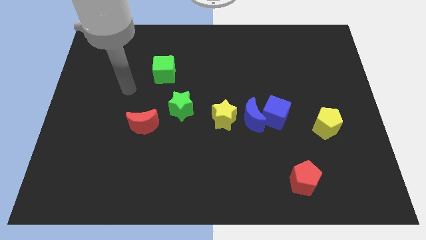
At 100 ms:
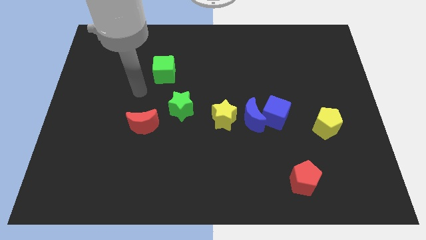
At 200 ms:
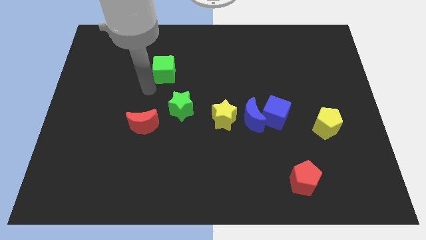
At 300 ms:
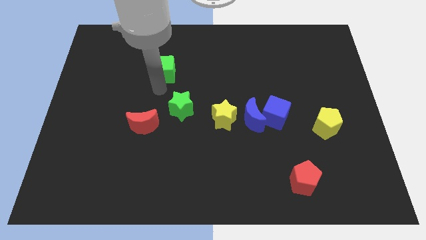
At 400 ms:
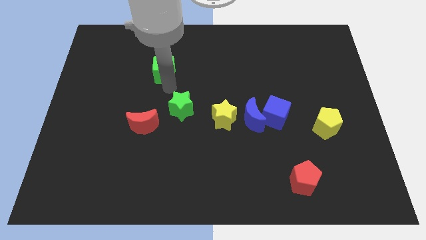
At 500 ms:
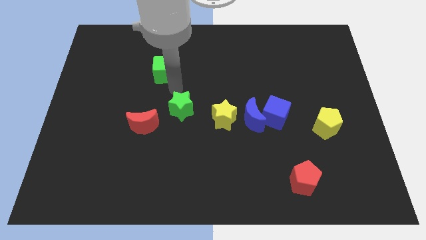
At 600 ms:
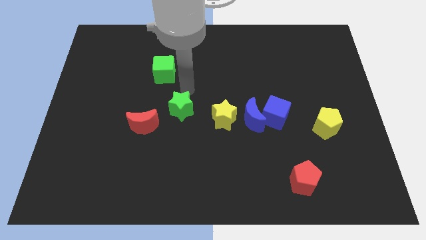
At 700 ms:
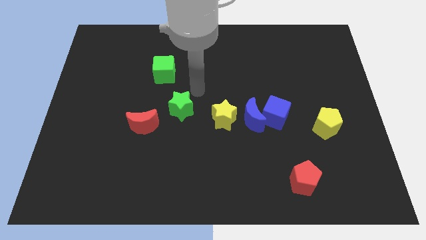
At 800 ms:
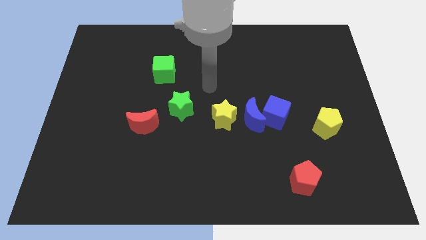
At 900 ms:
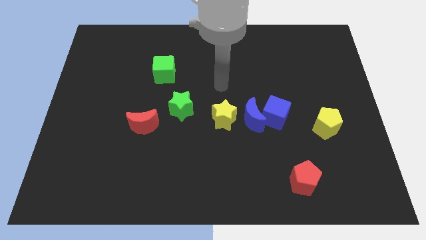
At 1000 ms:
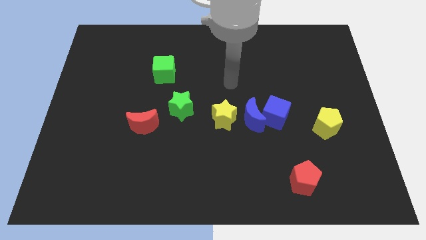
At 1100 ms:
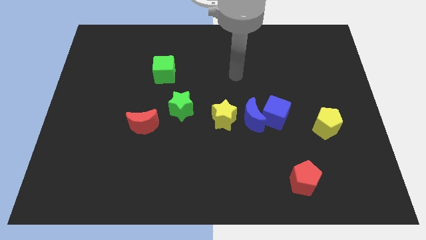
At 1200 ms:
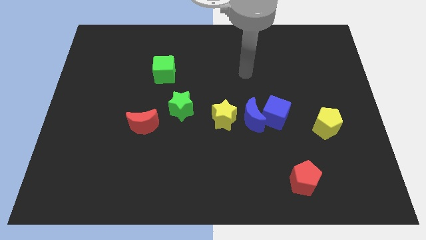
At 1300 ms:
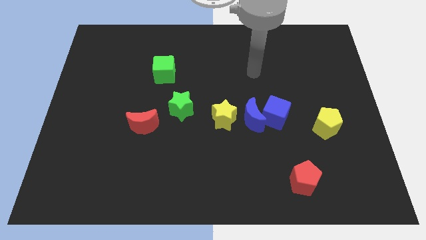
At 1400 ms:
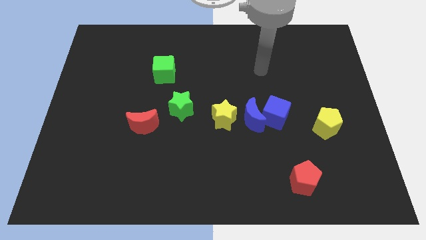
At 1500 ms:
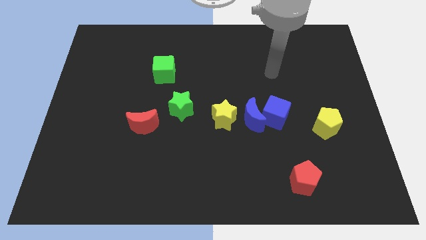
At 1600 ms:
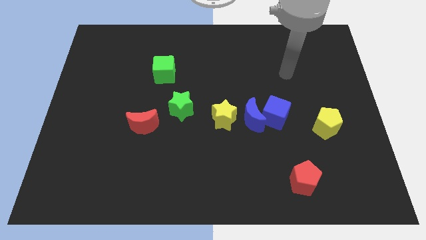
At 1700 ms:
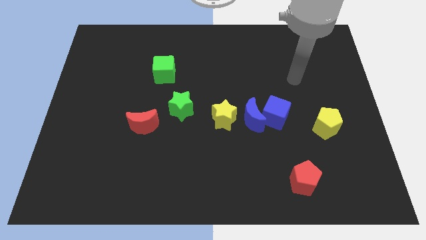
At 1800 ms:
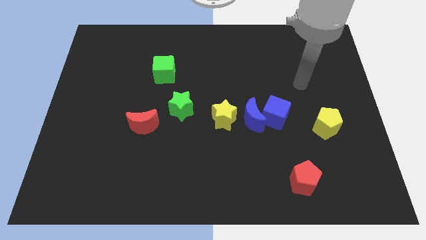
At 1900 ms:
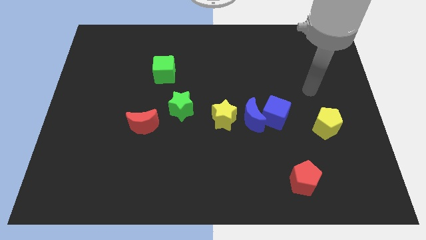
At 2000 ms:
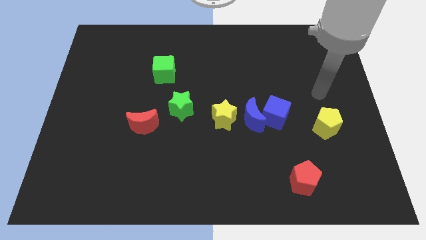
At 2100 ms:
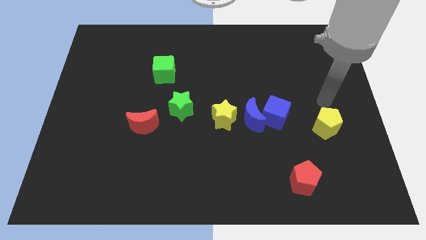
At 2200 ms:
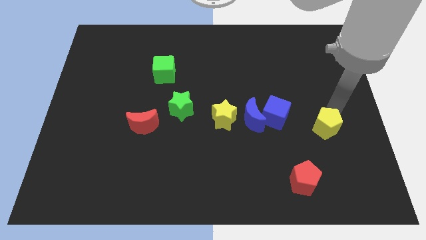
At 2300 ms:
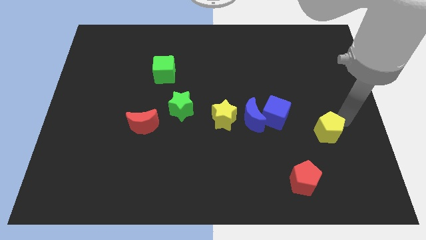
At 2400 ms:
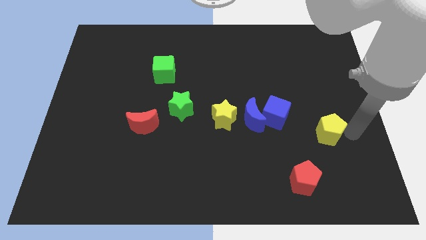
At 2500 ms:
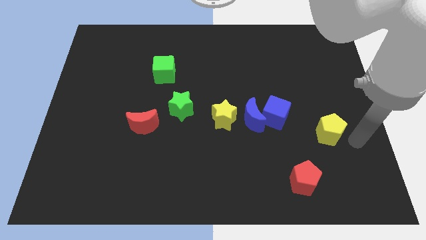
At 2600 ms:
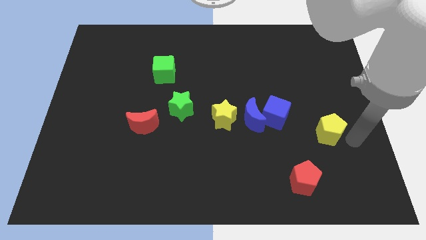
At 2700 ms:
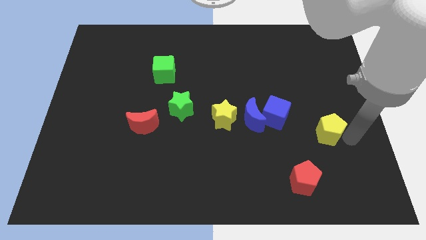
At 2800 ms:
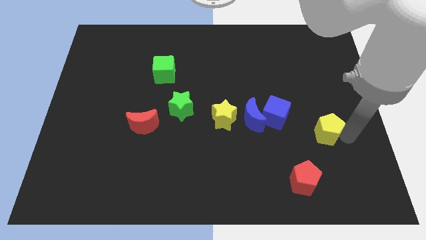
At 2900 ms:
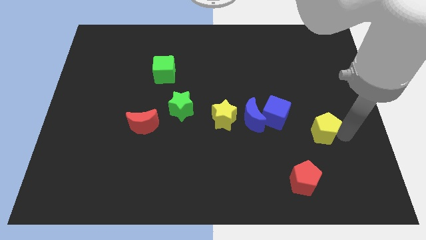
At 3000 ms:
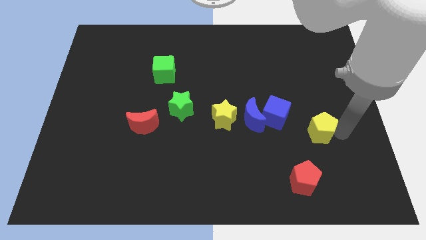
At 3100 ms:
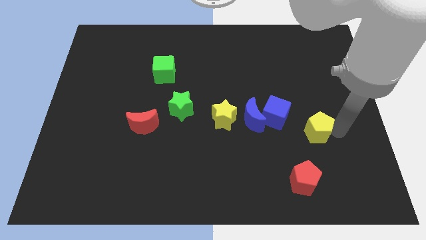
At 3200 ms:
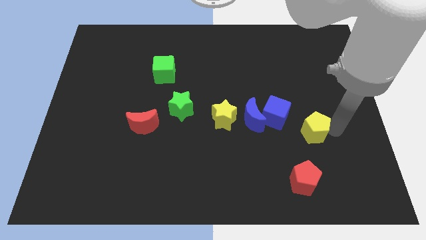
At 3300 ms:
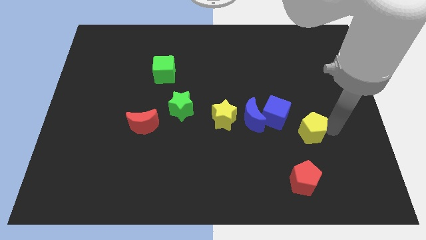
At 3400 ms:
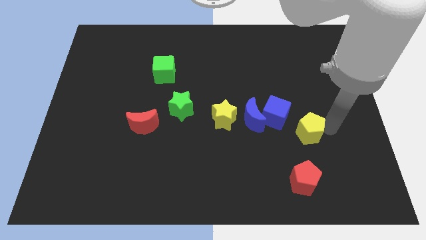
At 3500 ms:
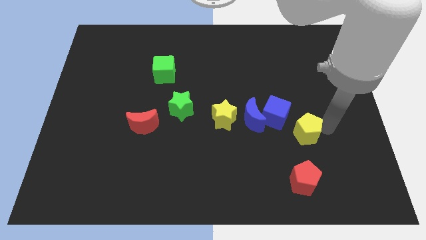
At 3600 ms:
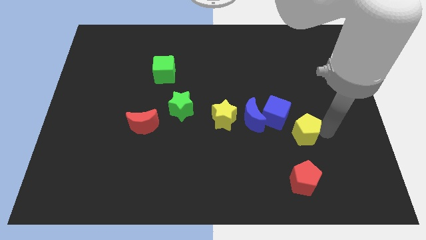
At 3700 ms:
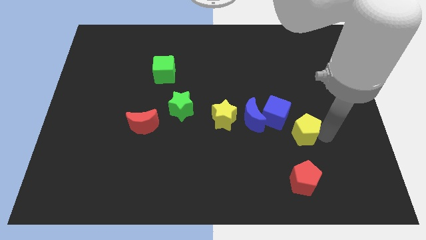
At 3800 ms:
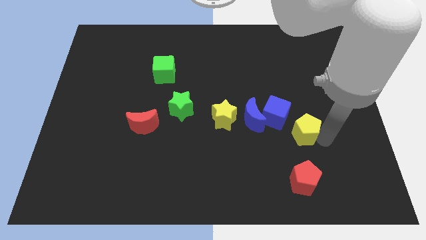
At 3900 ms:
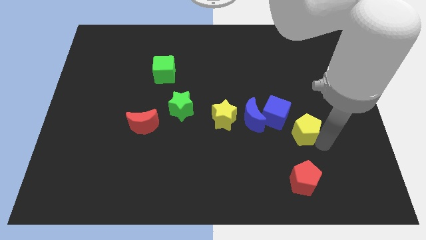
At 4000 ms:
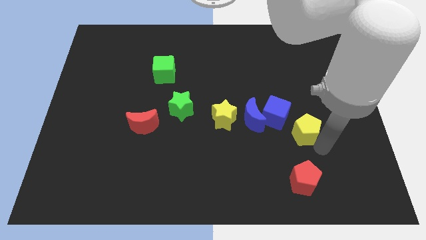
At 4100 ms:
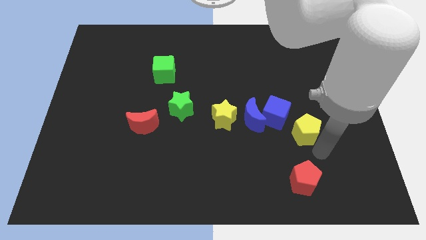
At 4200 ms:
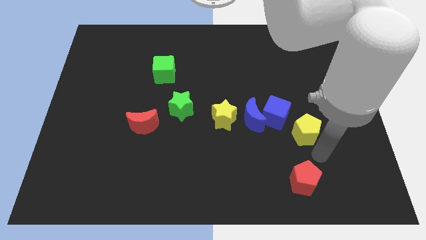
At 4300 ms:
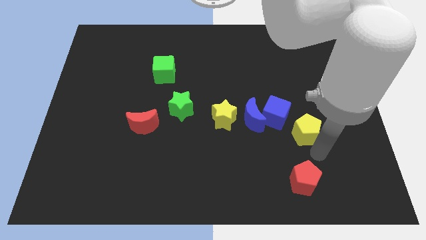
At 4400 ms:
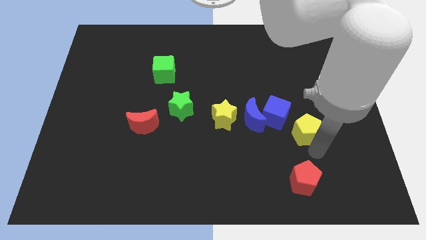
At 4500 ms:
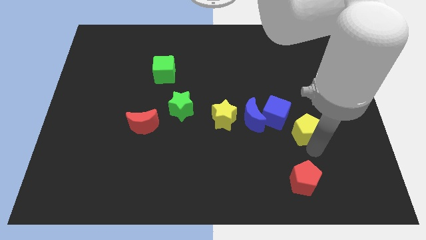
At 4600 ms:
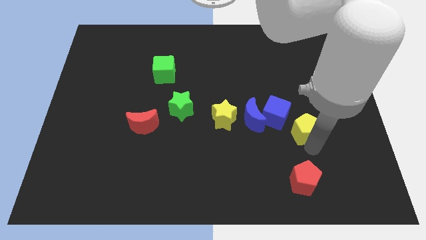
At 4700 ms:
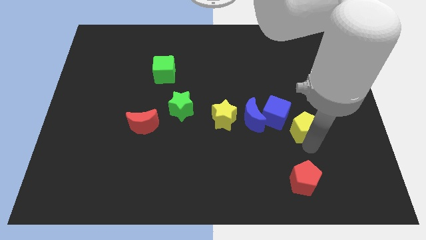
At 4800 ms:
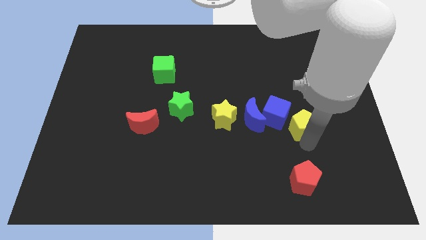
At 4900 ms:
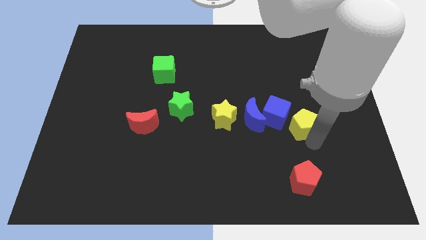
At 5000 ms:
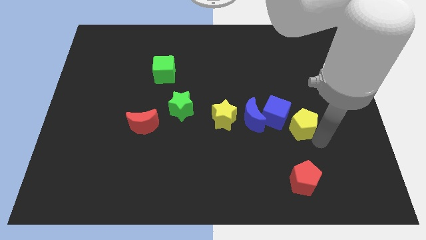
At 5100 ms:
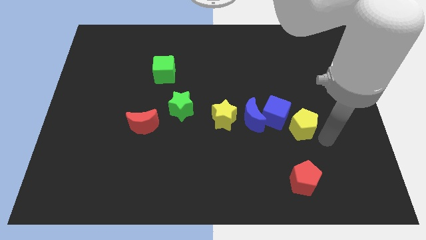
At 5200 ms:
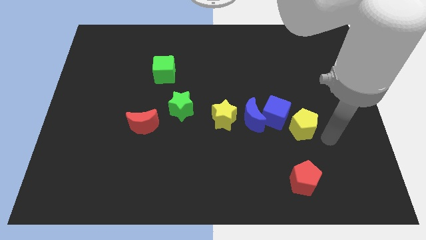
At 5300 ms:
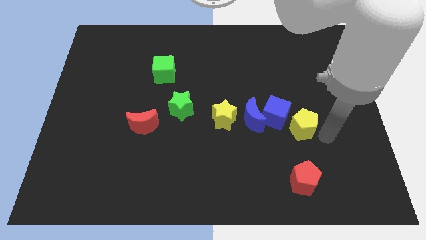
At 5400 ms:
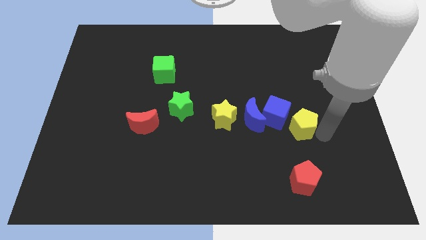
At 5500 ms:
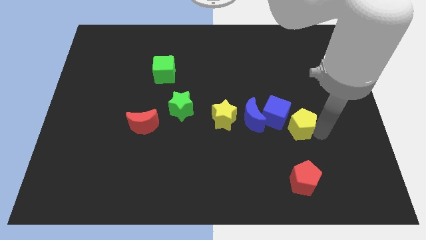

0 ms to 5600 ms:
put the yellow pentagon towards the blue cube

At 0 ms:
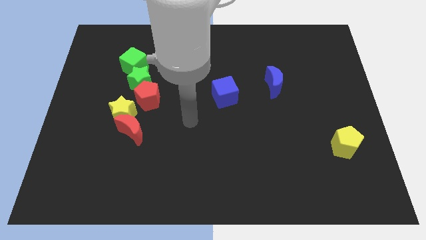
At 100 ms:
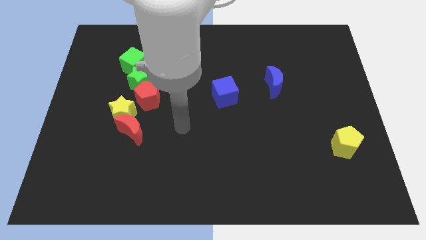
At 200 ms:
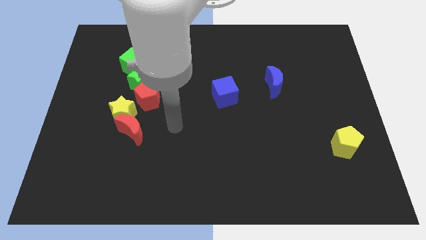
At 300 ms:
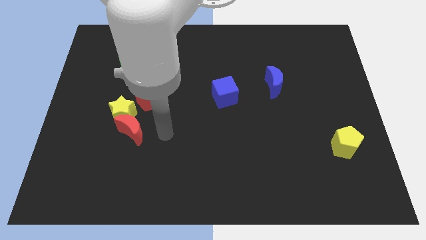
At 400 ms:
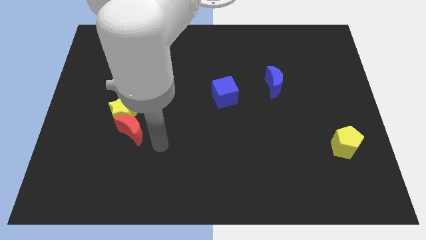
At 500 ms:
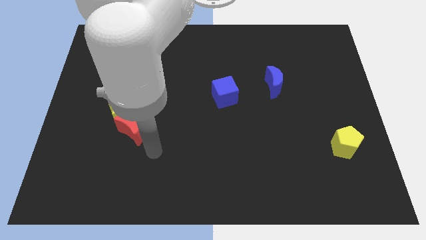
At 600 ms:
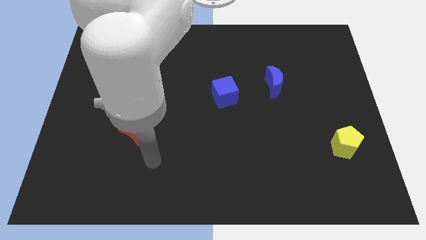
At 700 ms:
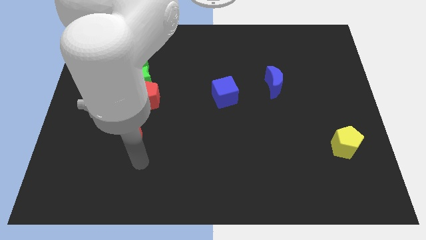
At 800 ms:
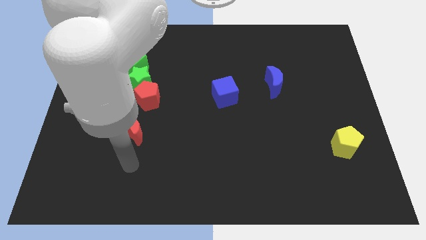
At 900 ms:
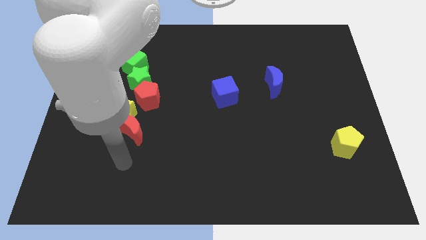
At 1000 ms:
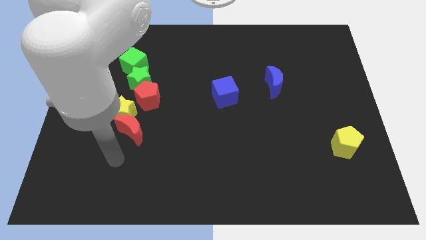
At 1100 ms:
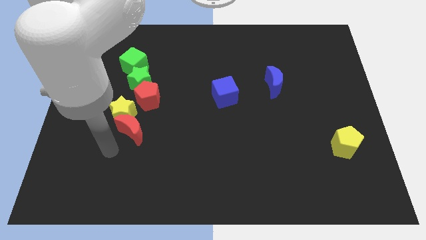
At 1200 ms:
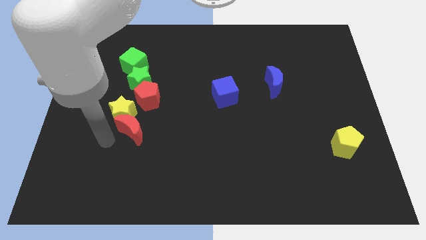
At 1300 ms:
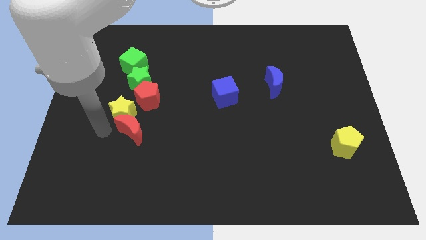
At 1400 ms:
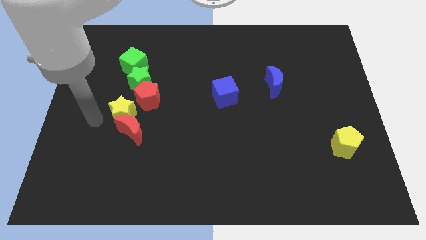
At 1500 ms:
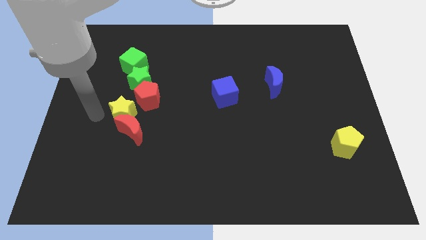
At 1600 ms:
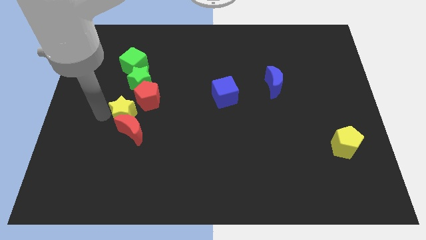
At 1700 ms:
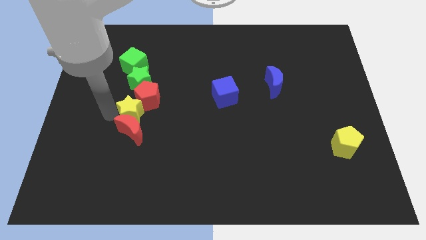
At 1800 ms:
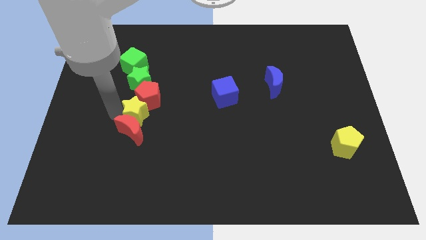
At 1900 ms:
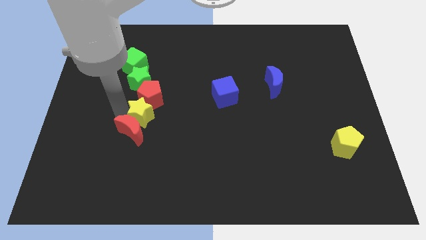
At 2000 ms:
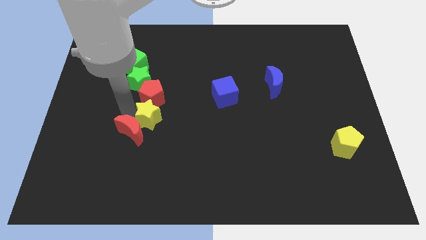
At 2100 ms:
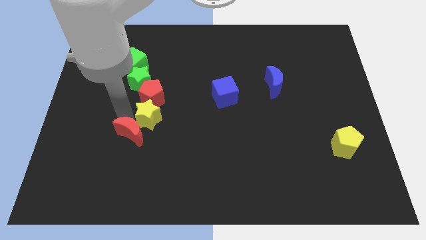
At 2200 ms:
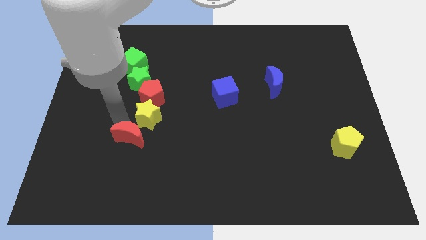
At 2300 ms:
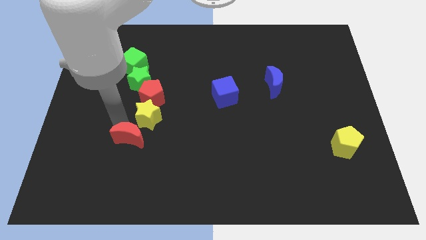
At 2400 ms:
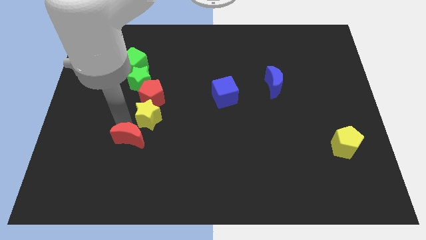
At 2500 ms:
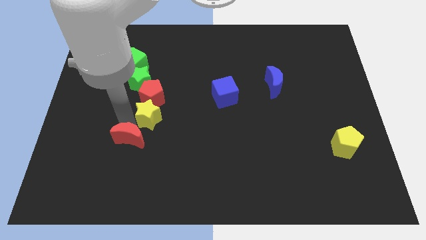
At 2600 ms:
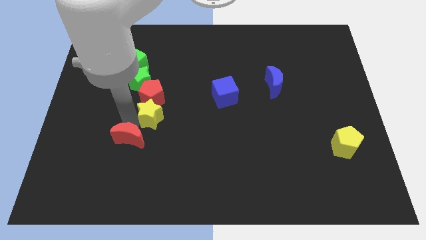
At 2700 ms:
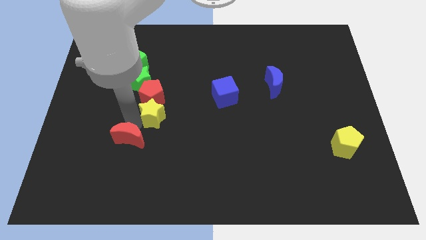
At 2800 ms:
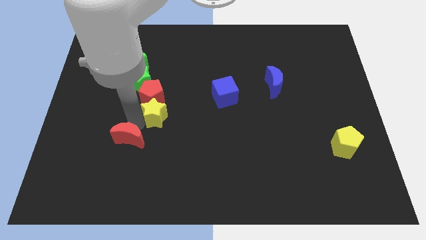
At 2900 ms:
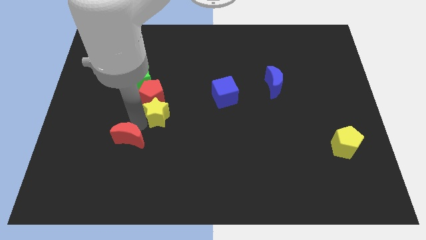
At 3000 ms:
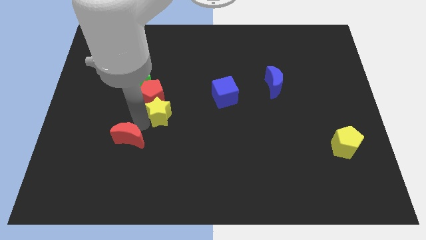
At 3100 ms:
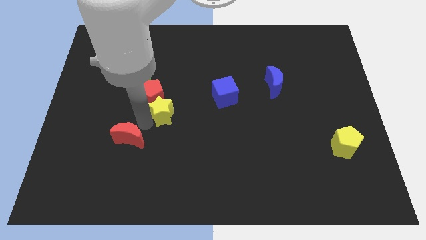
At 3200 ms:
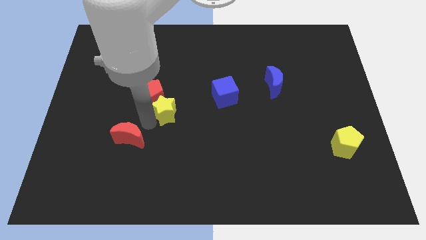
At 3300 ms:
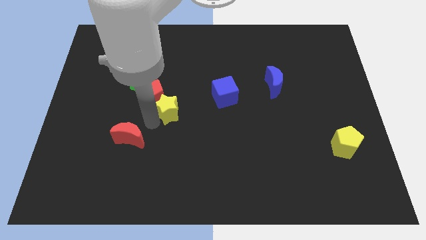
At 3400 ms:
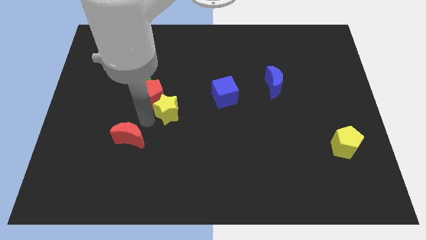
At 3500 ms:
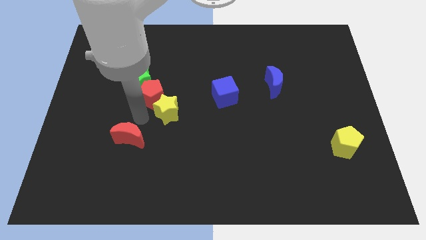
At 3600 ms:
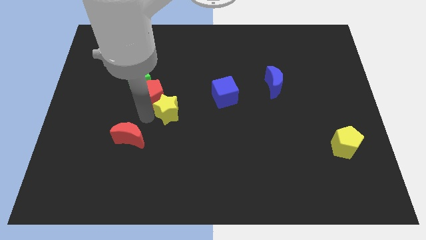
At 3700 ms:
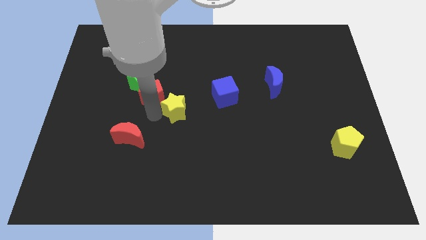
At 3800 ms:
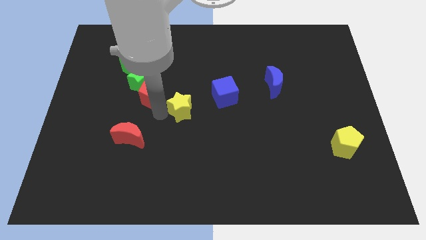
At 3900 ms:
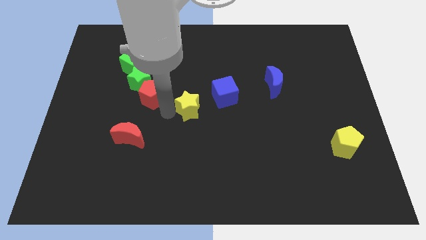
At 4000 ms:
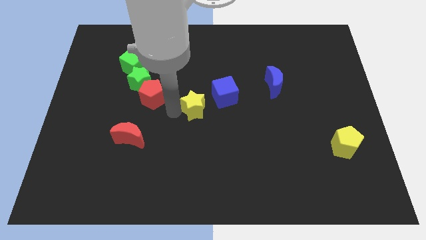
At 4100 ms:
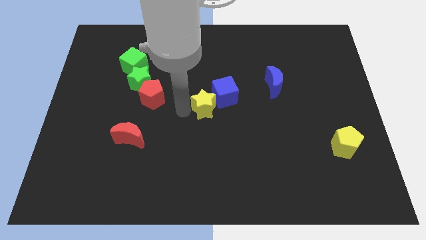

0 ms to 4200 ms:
move the yellow star close to the blue cube
